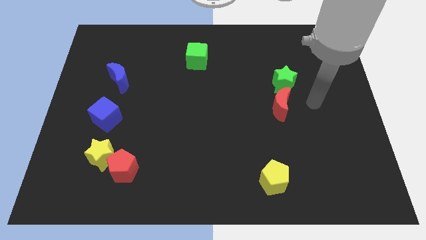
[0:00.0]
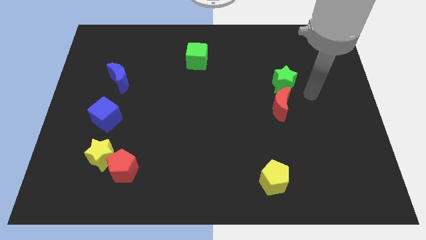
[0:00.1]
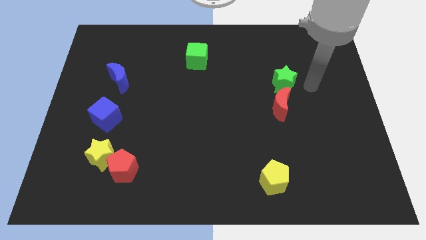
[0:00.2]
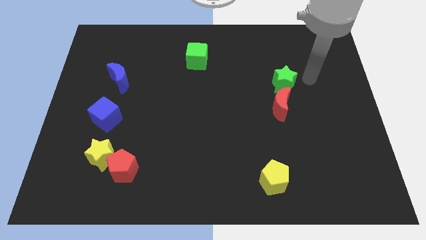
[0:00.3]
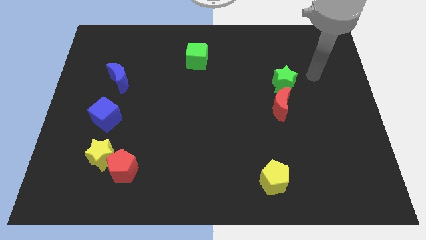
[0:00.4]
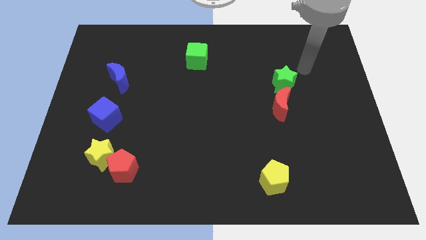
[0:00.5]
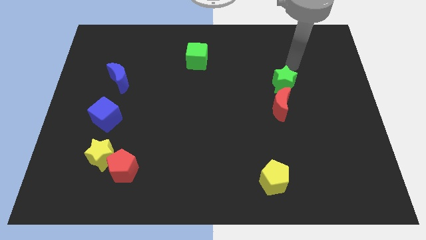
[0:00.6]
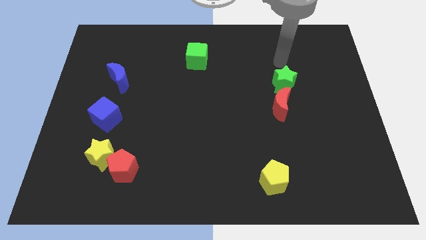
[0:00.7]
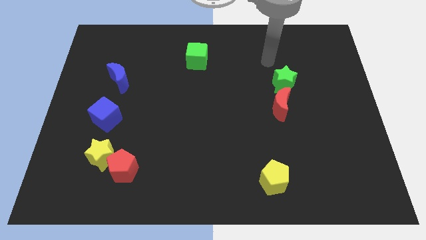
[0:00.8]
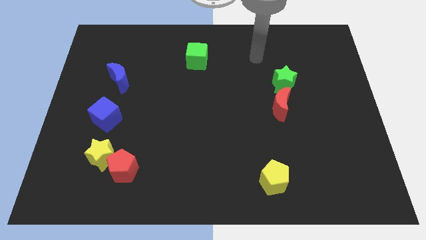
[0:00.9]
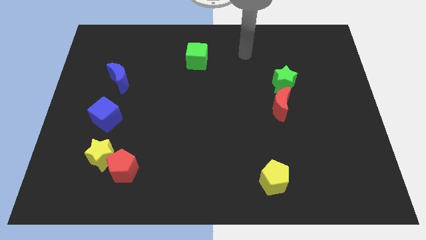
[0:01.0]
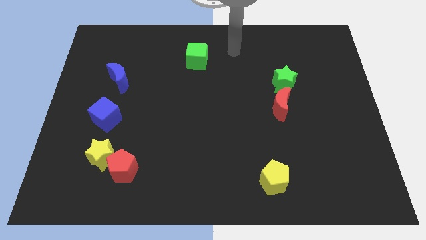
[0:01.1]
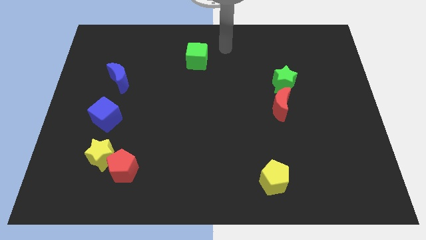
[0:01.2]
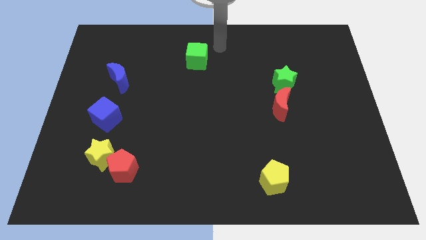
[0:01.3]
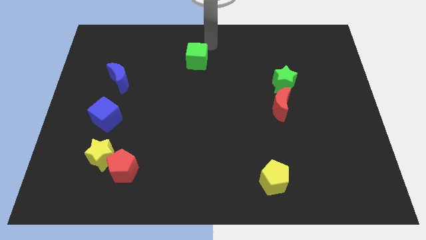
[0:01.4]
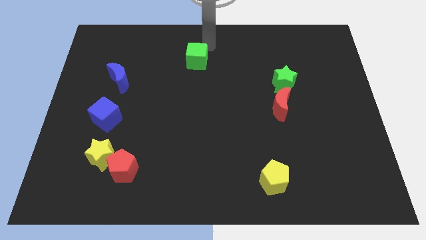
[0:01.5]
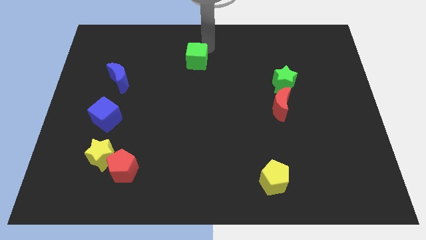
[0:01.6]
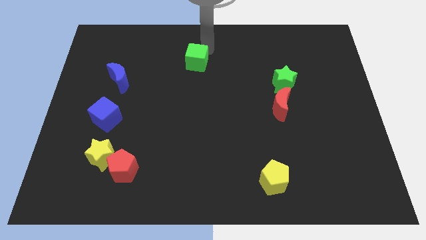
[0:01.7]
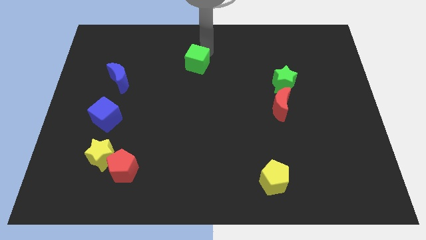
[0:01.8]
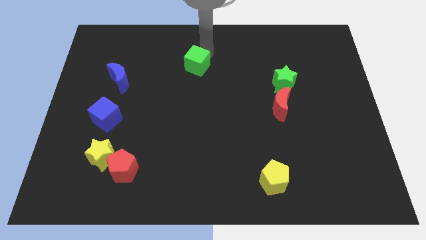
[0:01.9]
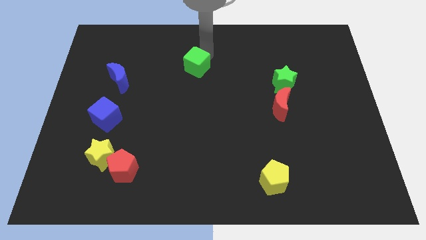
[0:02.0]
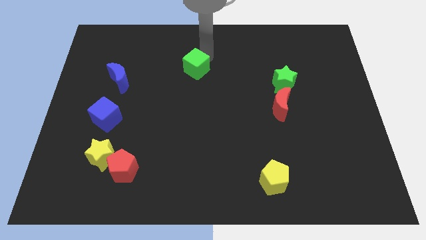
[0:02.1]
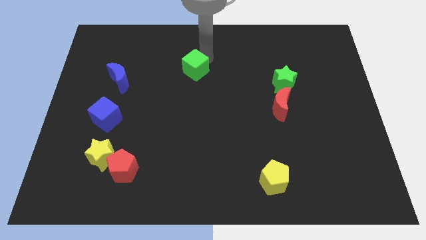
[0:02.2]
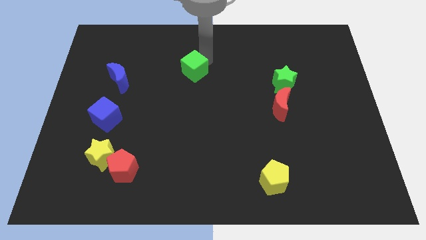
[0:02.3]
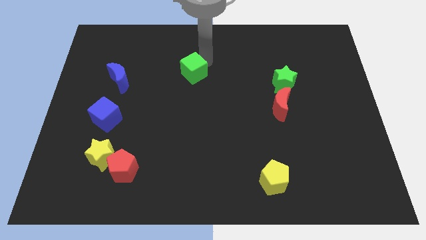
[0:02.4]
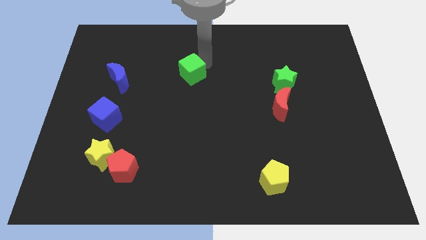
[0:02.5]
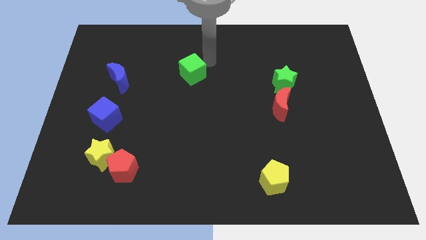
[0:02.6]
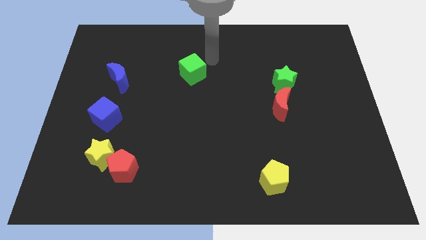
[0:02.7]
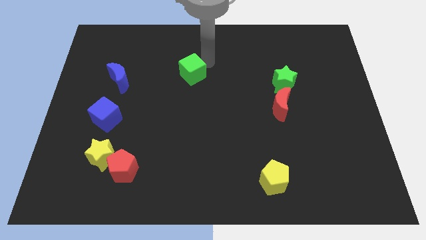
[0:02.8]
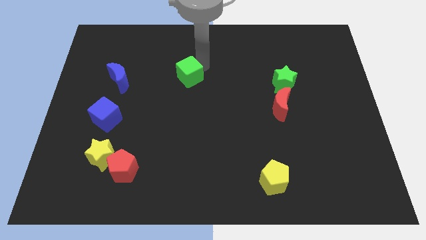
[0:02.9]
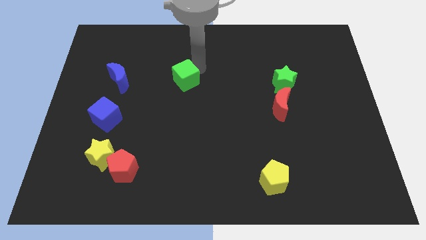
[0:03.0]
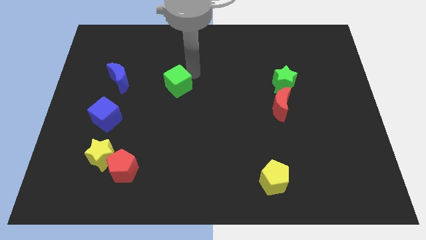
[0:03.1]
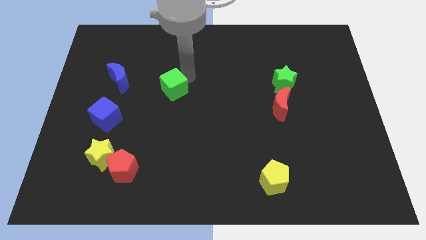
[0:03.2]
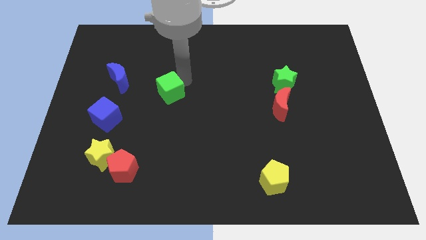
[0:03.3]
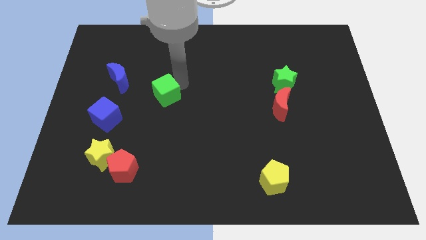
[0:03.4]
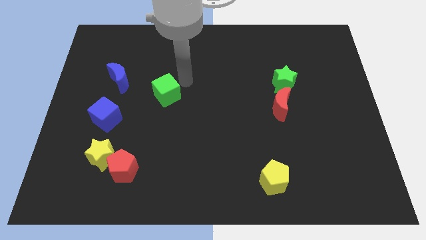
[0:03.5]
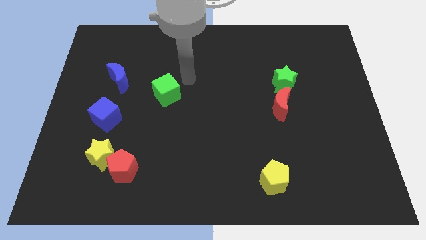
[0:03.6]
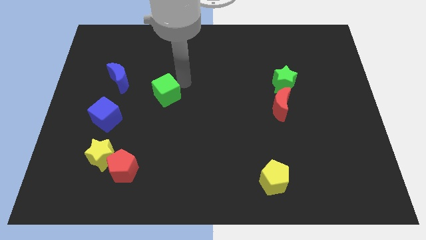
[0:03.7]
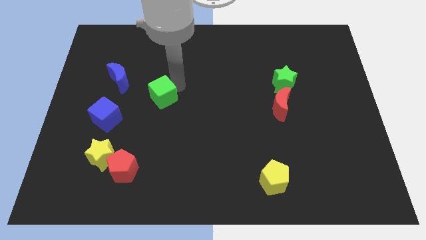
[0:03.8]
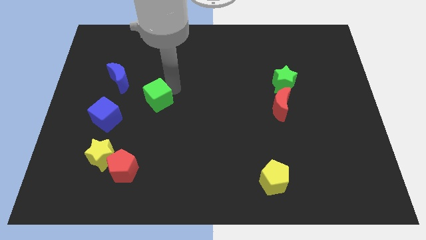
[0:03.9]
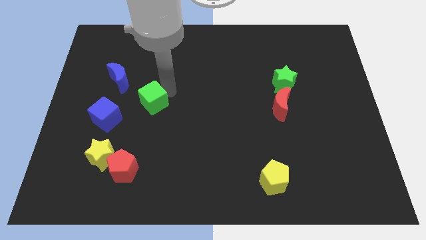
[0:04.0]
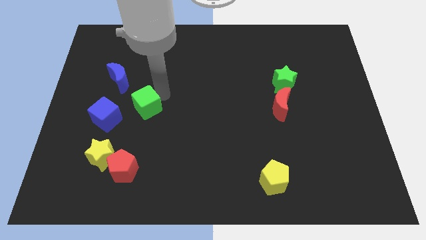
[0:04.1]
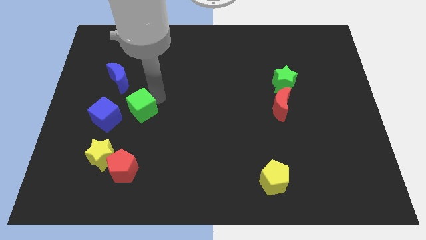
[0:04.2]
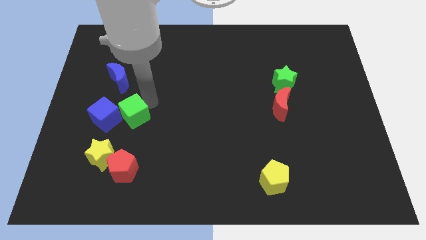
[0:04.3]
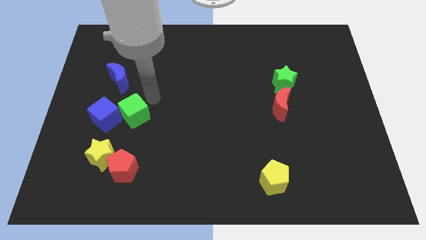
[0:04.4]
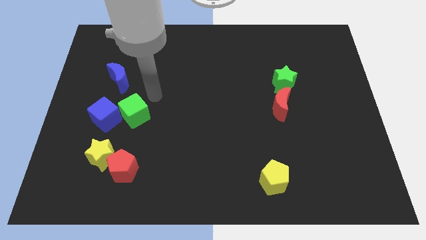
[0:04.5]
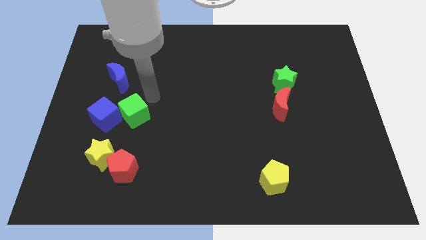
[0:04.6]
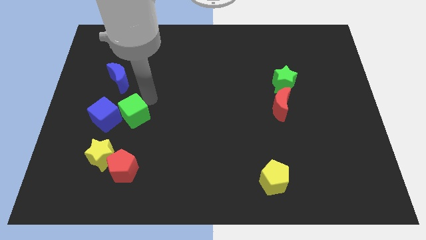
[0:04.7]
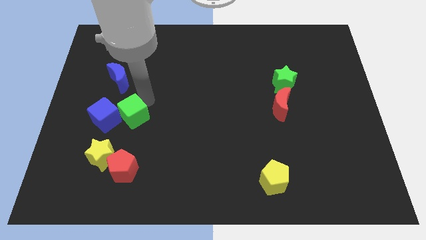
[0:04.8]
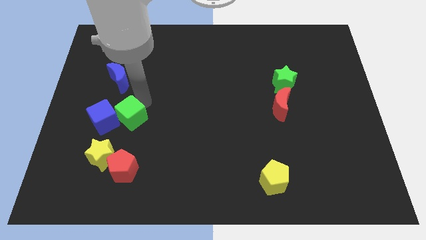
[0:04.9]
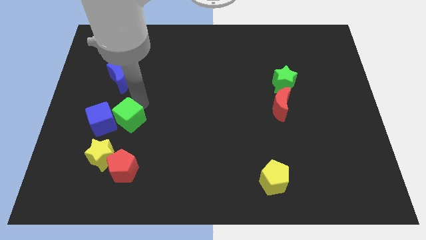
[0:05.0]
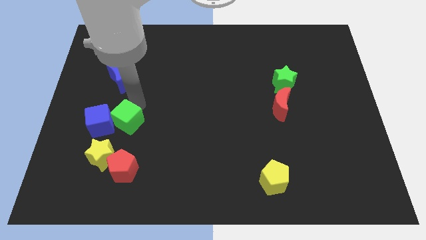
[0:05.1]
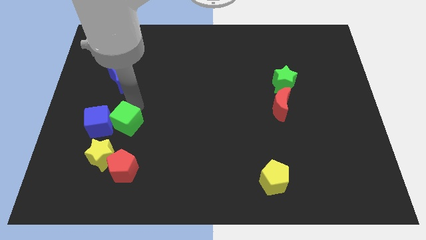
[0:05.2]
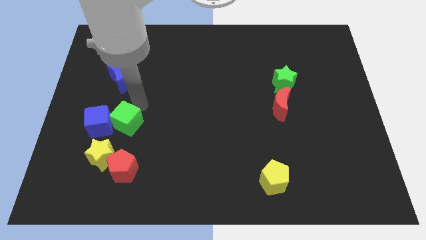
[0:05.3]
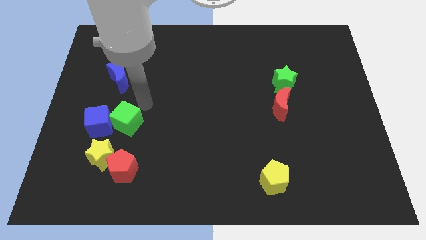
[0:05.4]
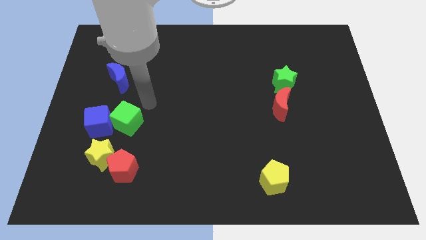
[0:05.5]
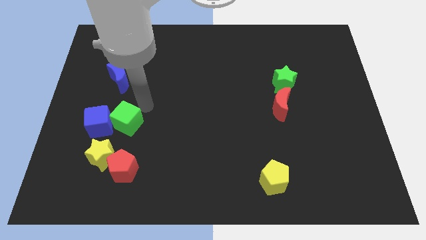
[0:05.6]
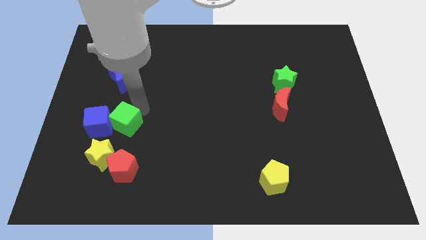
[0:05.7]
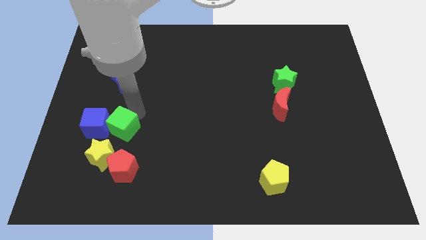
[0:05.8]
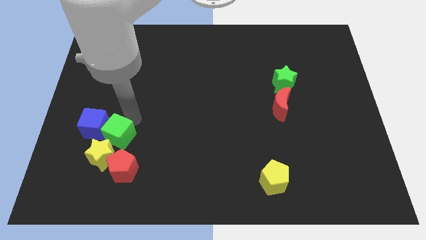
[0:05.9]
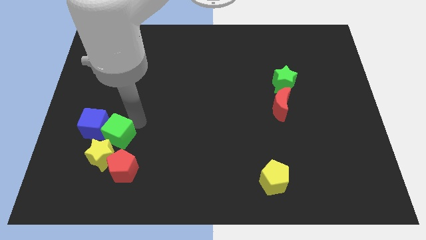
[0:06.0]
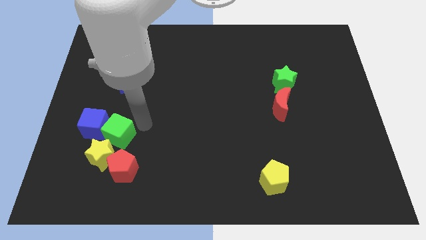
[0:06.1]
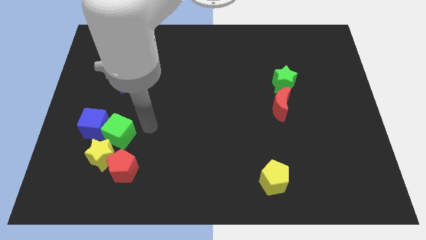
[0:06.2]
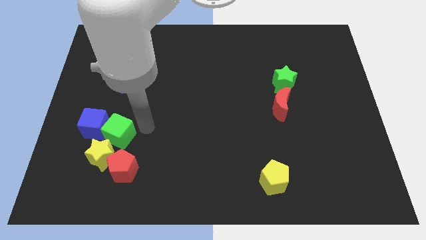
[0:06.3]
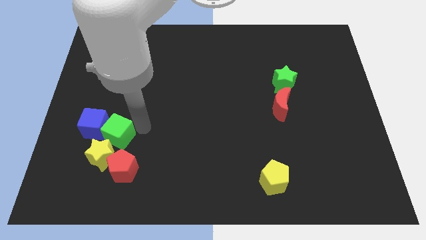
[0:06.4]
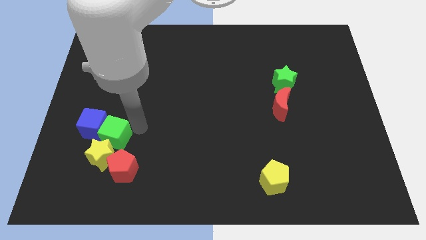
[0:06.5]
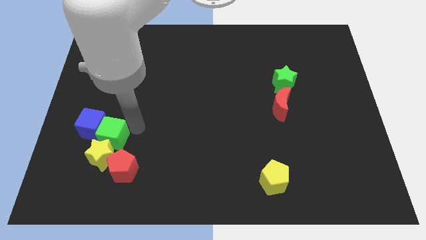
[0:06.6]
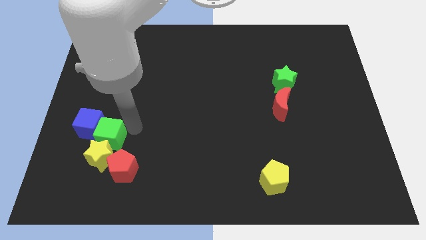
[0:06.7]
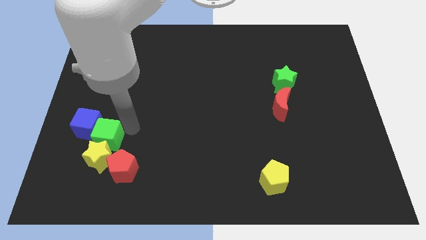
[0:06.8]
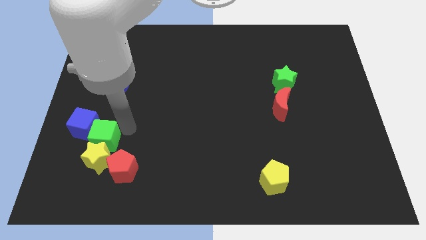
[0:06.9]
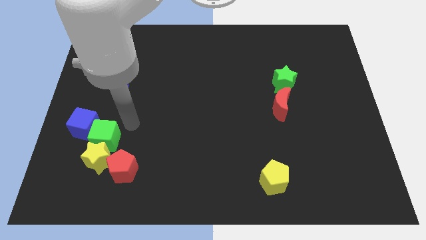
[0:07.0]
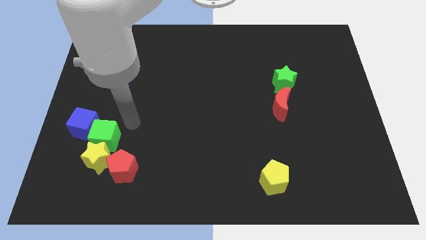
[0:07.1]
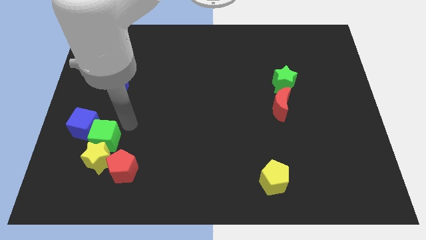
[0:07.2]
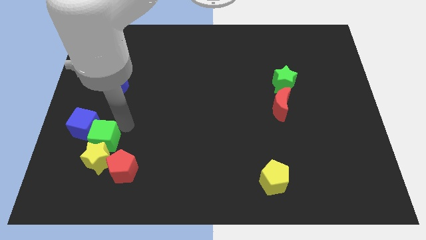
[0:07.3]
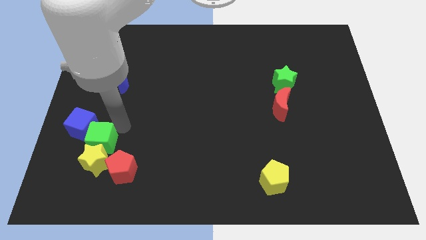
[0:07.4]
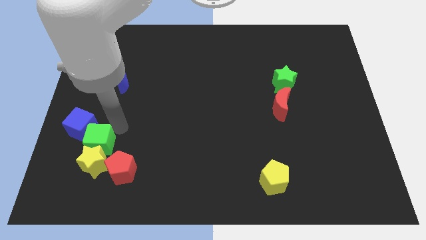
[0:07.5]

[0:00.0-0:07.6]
put the green cube below the blue cube
